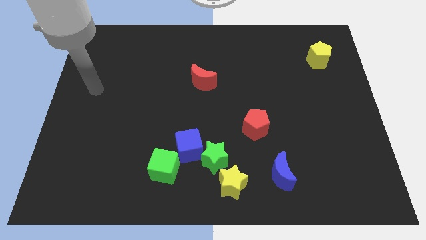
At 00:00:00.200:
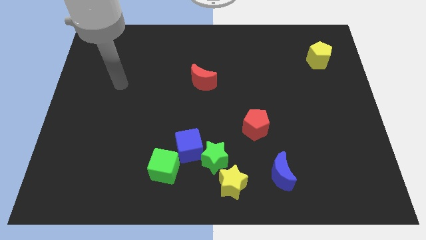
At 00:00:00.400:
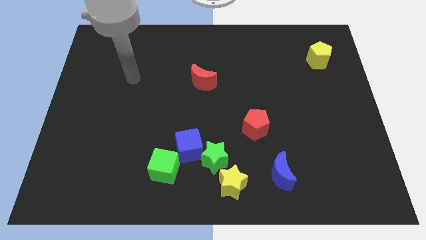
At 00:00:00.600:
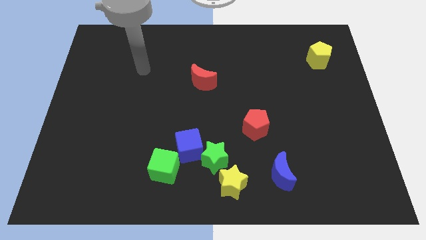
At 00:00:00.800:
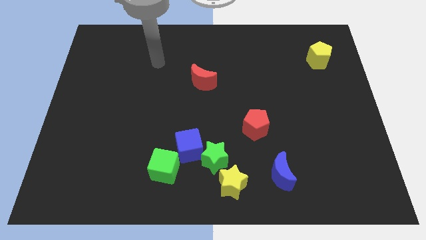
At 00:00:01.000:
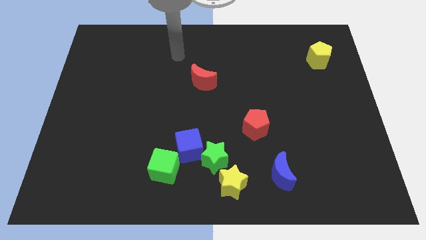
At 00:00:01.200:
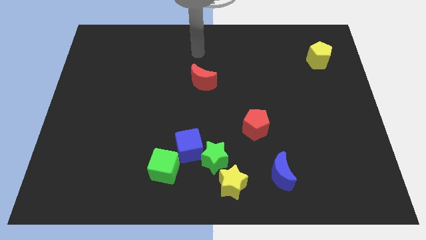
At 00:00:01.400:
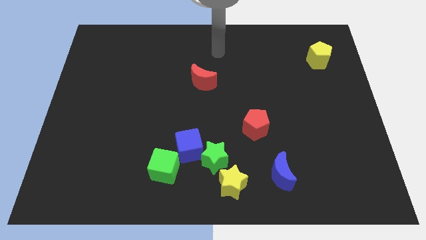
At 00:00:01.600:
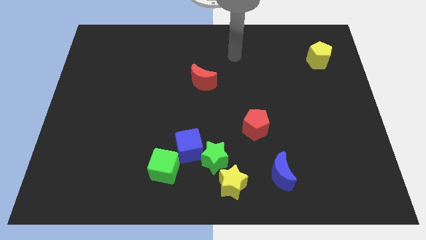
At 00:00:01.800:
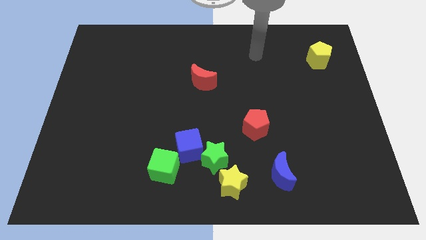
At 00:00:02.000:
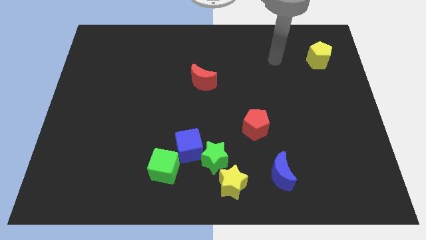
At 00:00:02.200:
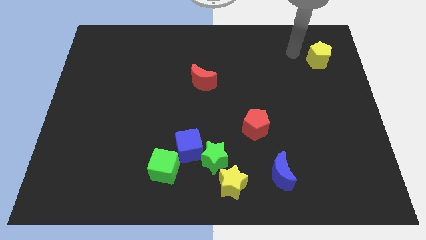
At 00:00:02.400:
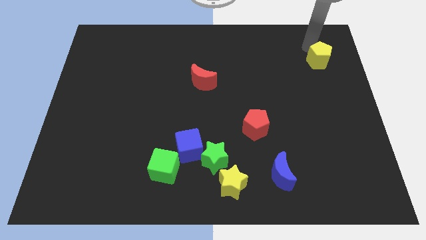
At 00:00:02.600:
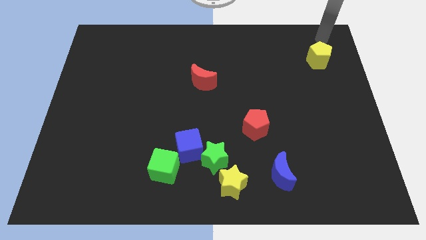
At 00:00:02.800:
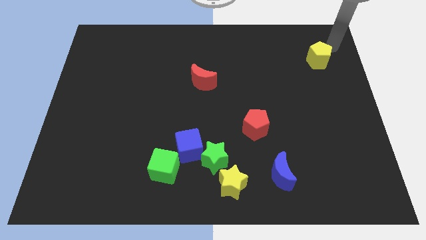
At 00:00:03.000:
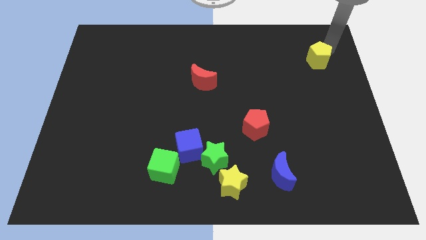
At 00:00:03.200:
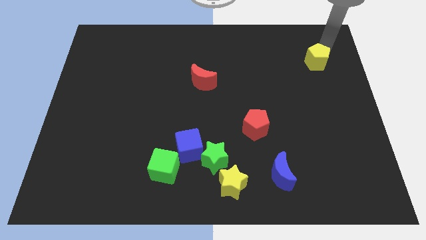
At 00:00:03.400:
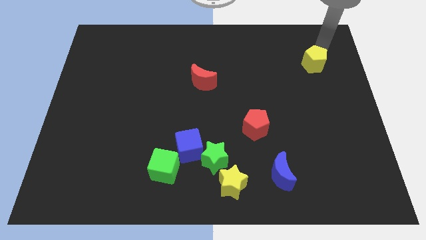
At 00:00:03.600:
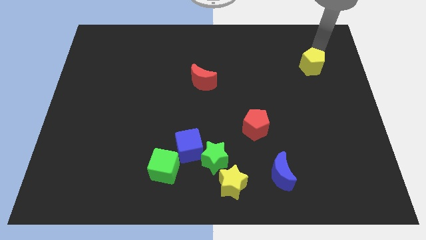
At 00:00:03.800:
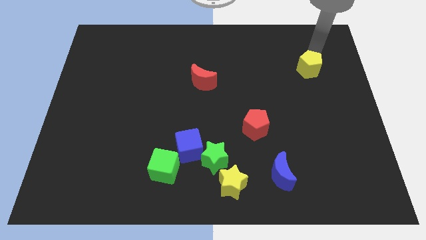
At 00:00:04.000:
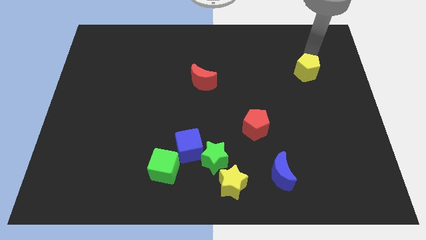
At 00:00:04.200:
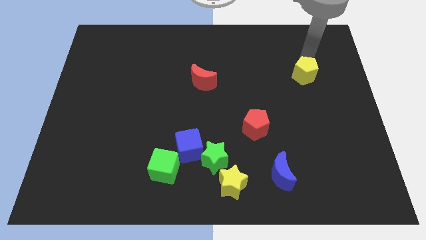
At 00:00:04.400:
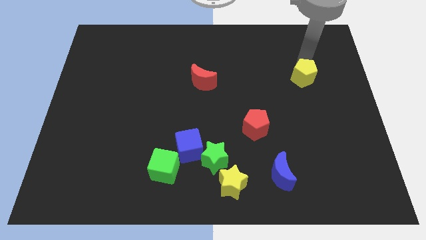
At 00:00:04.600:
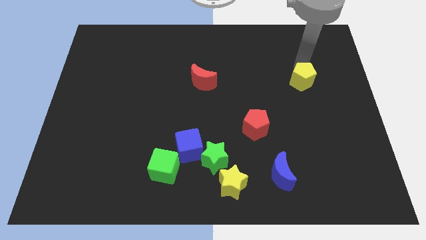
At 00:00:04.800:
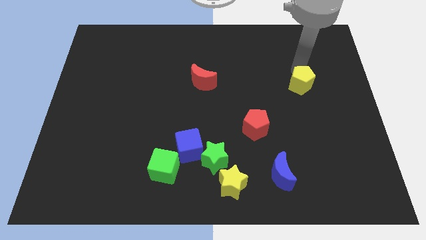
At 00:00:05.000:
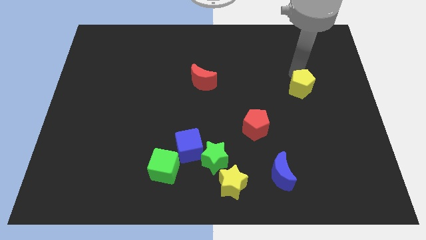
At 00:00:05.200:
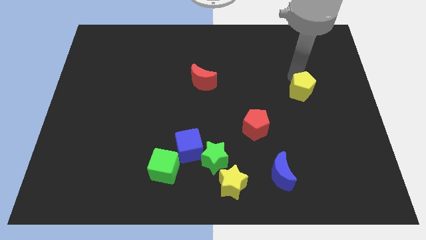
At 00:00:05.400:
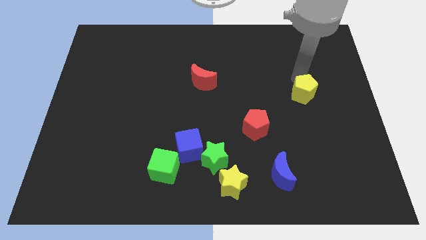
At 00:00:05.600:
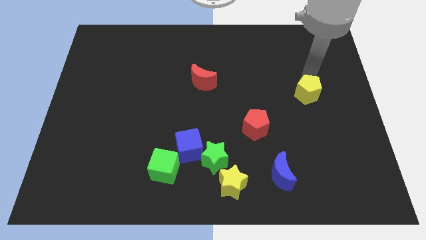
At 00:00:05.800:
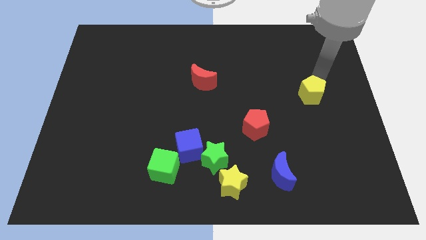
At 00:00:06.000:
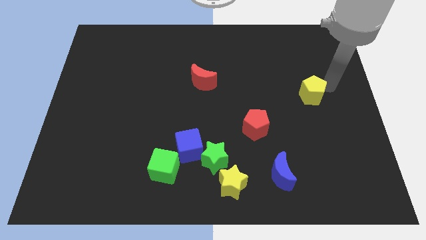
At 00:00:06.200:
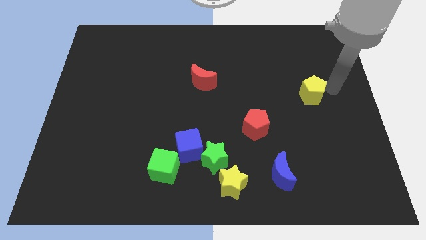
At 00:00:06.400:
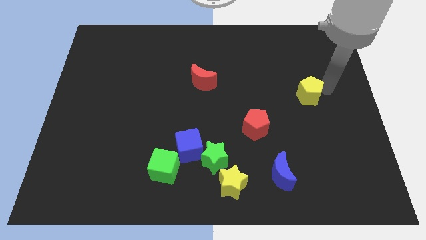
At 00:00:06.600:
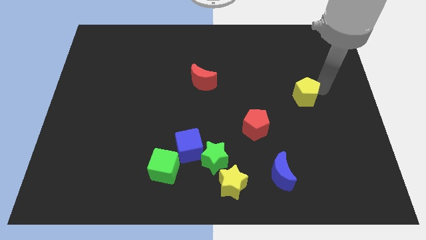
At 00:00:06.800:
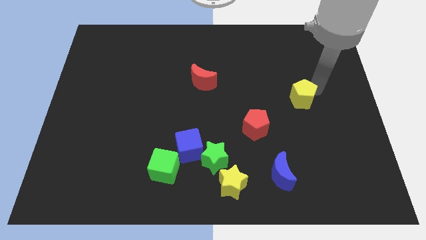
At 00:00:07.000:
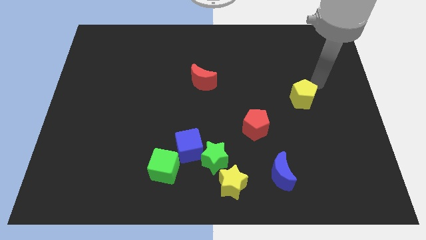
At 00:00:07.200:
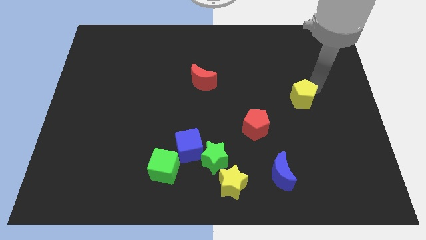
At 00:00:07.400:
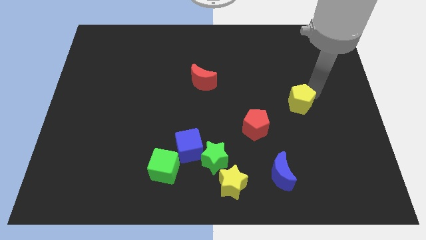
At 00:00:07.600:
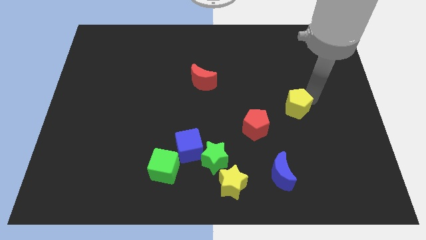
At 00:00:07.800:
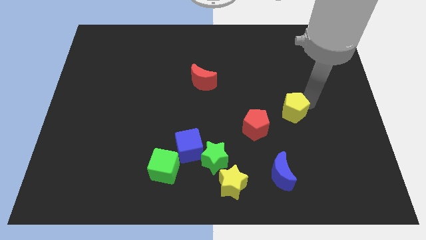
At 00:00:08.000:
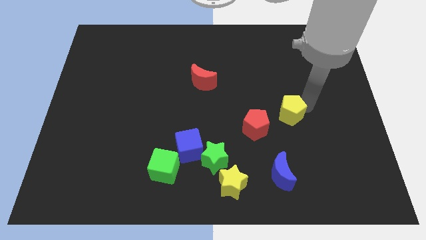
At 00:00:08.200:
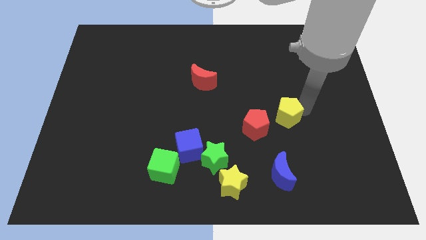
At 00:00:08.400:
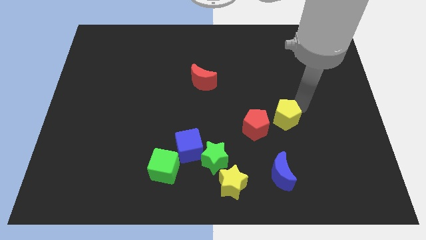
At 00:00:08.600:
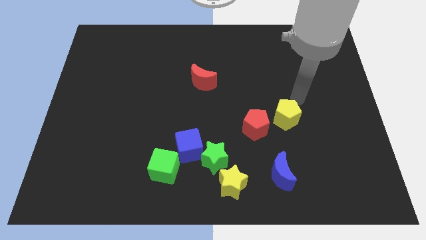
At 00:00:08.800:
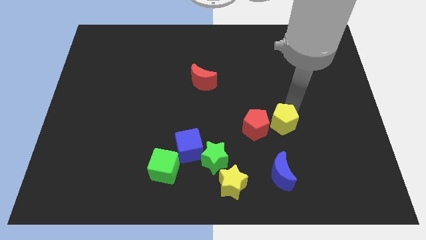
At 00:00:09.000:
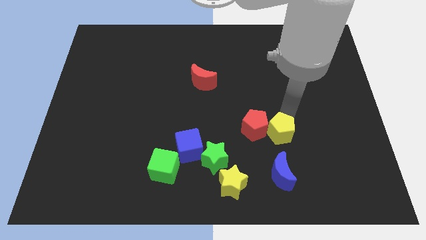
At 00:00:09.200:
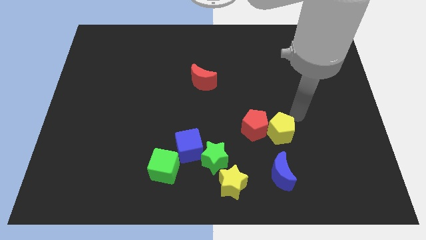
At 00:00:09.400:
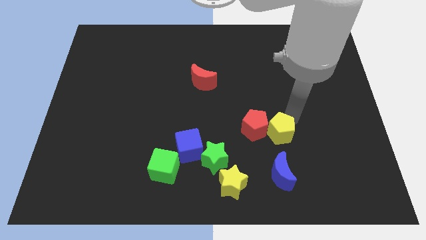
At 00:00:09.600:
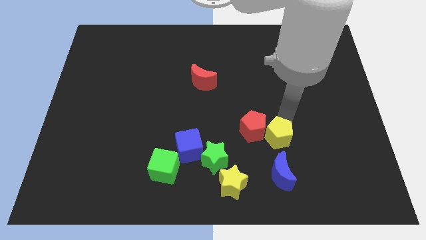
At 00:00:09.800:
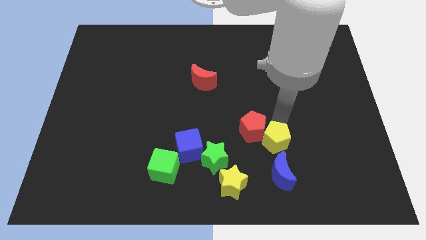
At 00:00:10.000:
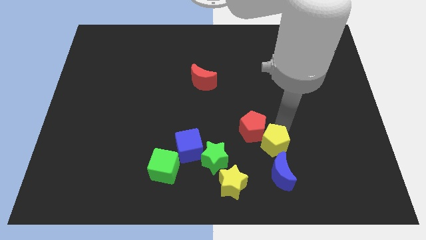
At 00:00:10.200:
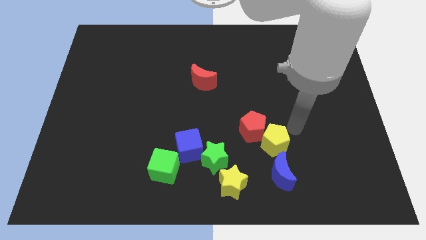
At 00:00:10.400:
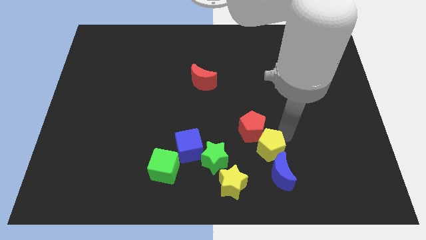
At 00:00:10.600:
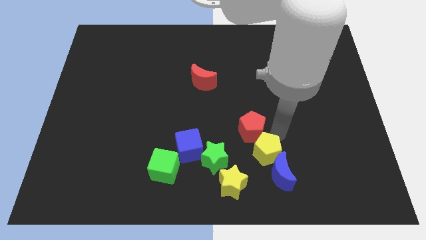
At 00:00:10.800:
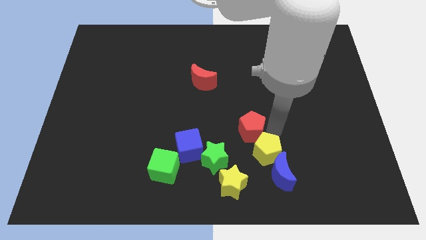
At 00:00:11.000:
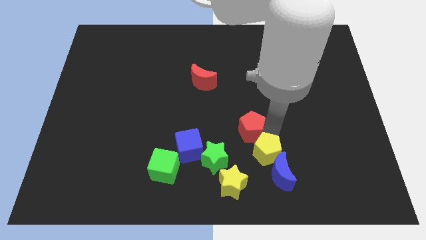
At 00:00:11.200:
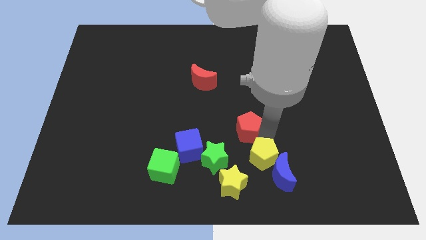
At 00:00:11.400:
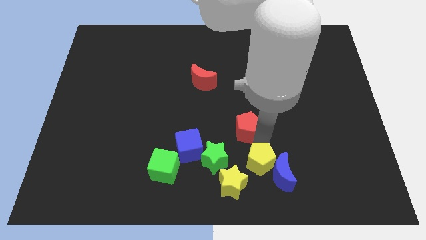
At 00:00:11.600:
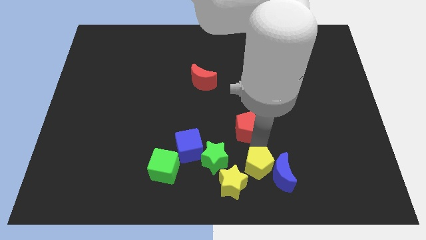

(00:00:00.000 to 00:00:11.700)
slide the yellow pentagon to the bottom side
